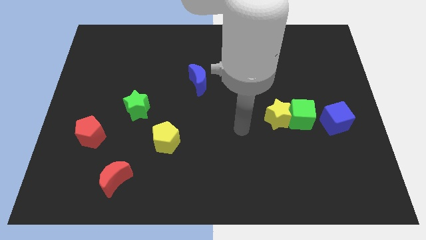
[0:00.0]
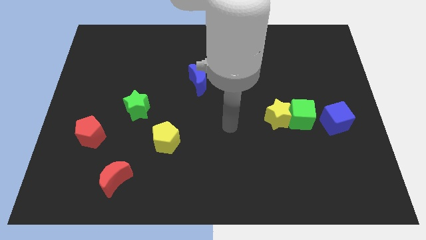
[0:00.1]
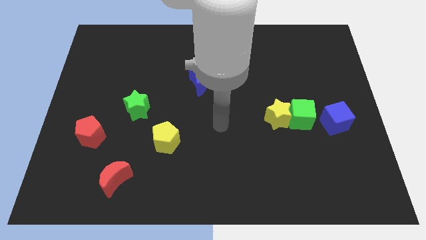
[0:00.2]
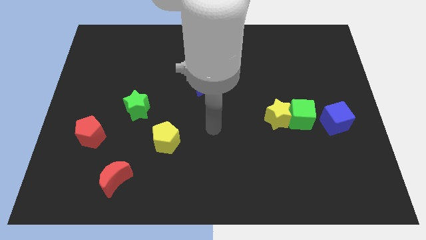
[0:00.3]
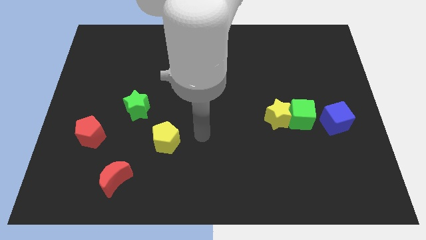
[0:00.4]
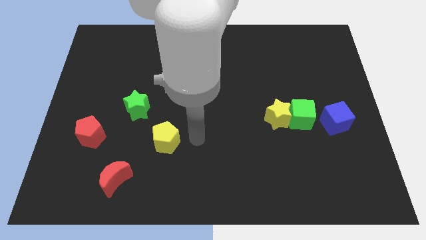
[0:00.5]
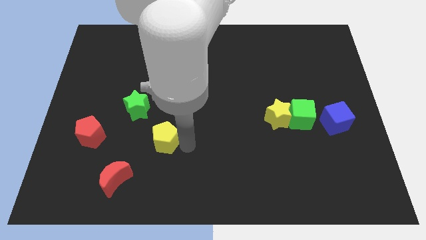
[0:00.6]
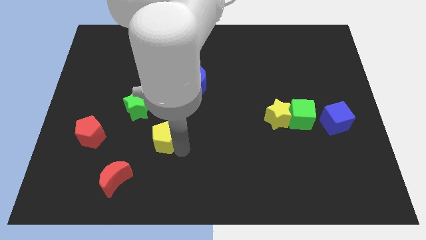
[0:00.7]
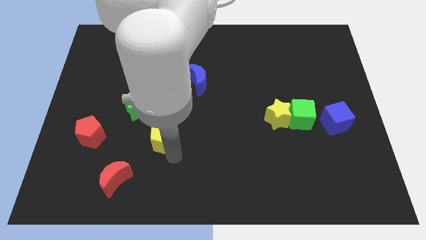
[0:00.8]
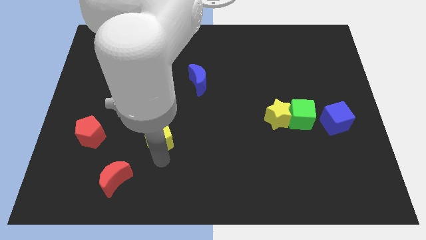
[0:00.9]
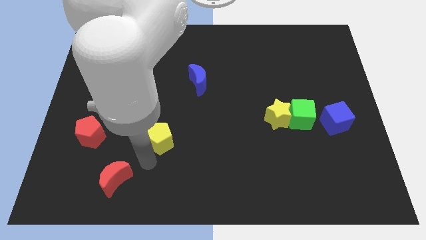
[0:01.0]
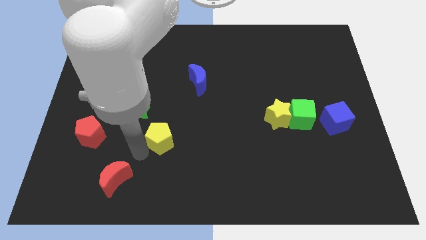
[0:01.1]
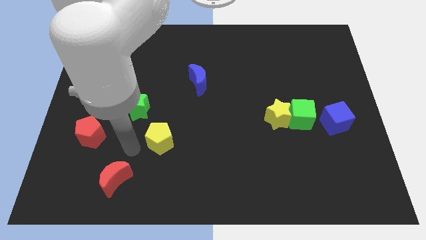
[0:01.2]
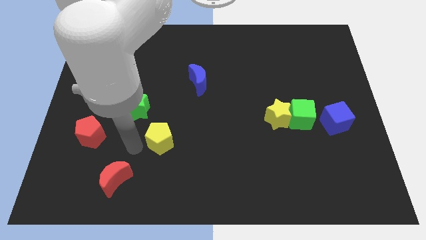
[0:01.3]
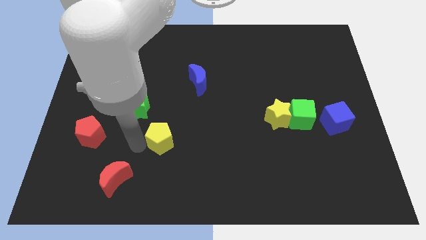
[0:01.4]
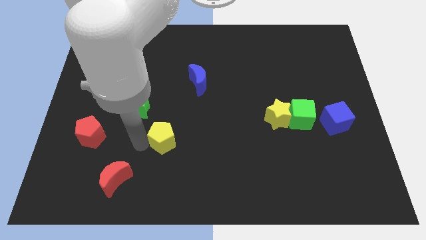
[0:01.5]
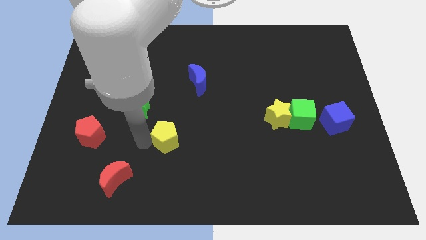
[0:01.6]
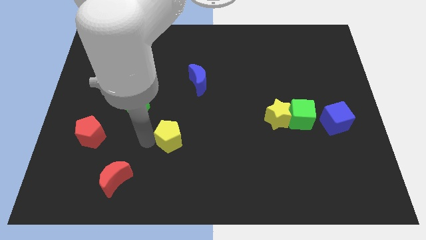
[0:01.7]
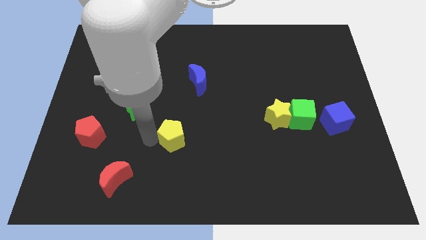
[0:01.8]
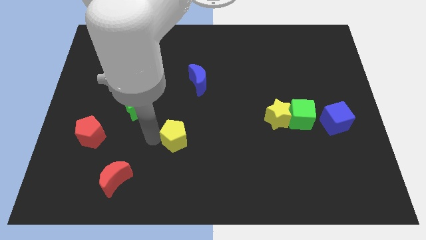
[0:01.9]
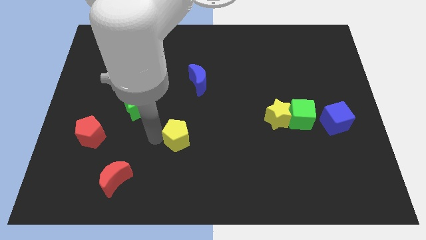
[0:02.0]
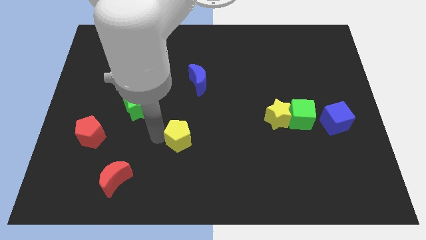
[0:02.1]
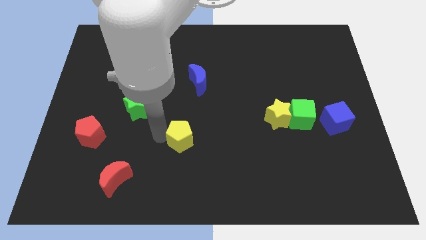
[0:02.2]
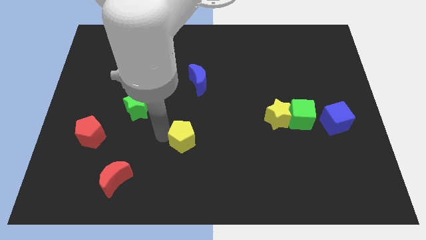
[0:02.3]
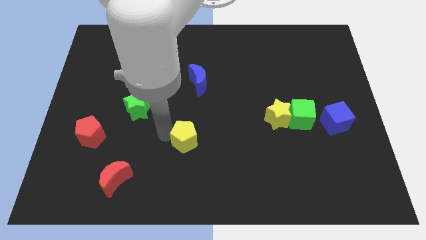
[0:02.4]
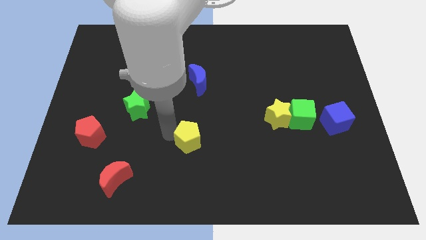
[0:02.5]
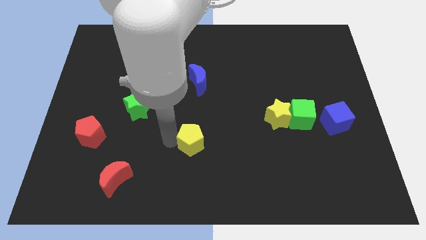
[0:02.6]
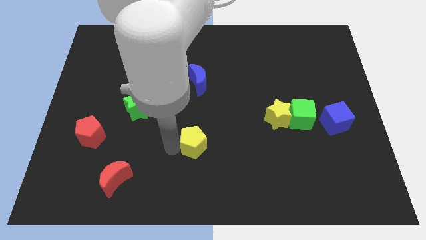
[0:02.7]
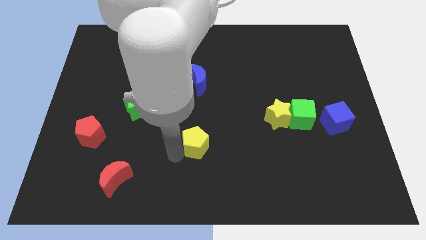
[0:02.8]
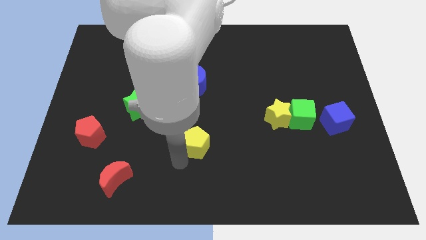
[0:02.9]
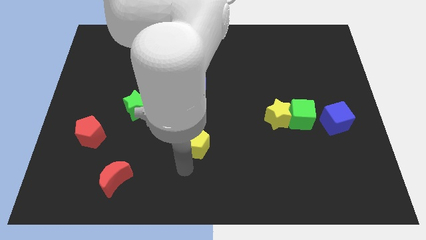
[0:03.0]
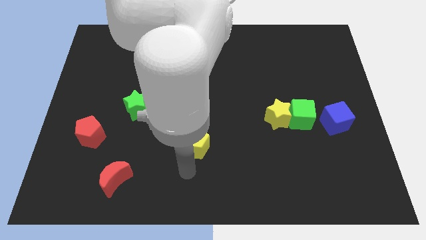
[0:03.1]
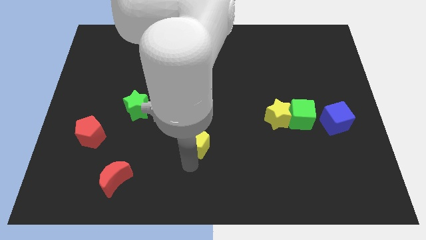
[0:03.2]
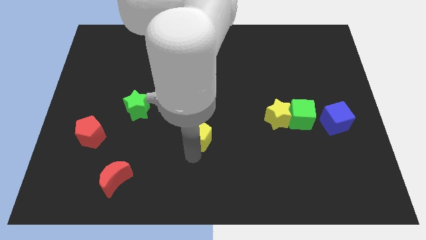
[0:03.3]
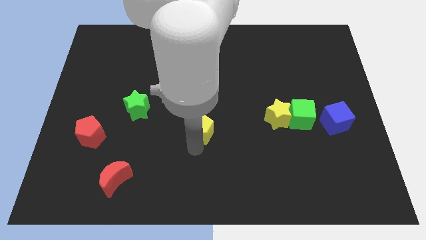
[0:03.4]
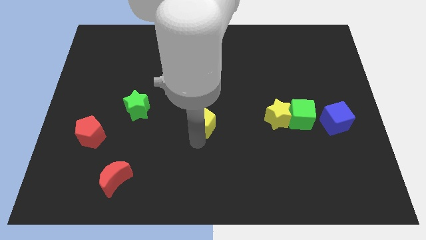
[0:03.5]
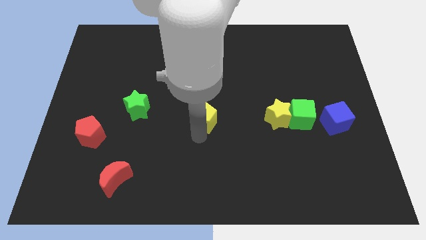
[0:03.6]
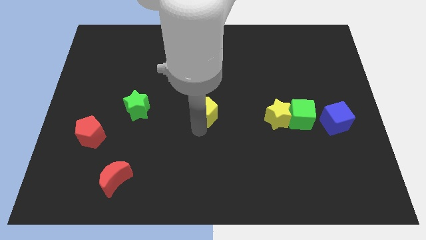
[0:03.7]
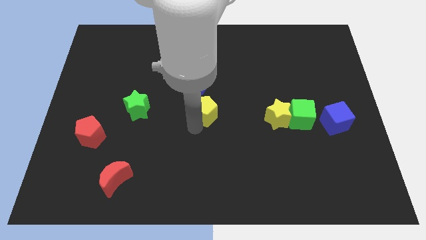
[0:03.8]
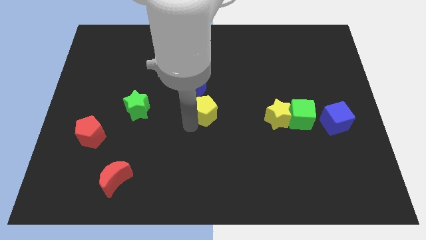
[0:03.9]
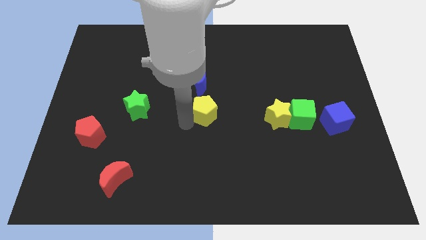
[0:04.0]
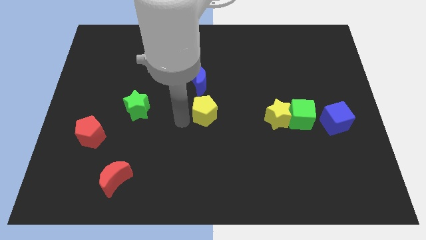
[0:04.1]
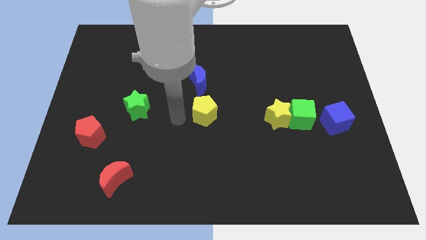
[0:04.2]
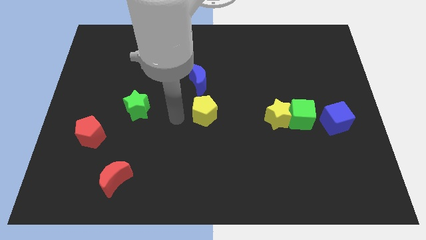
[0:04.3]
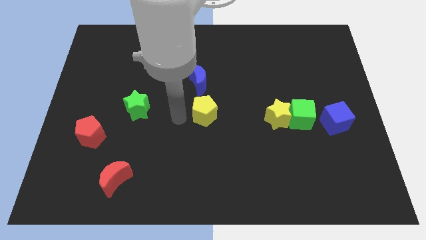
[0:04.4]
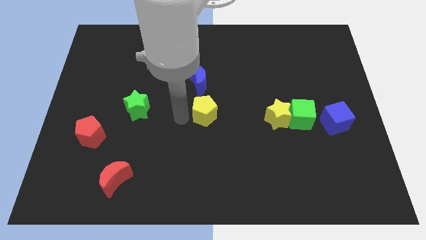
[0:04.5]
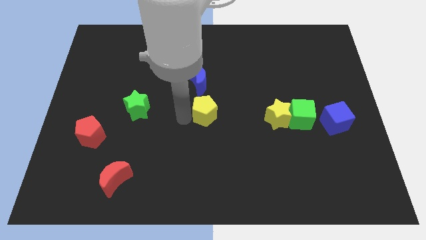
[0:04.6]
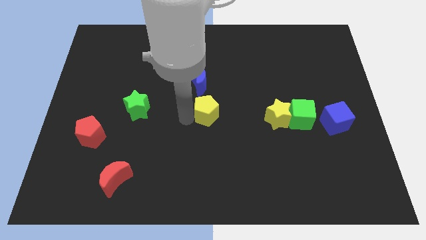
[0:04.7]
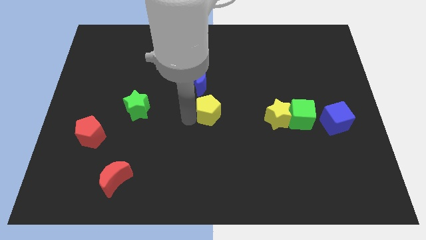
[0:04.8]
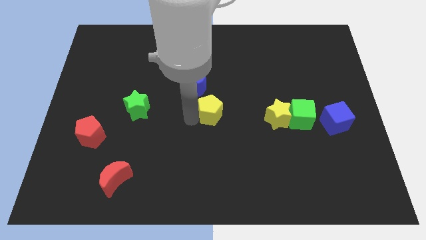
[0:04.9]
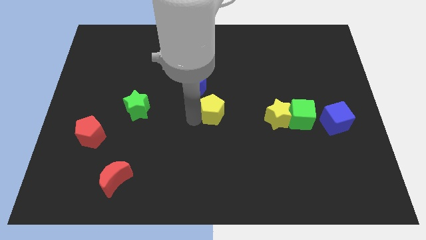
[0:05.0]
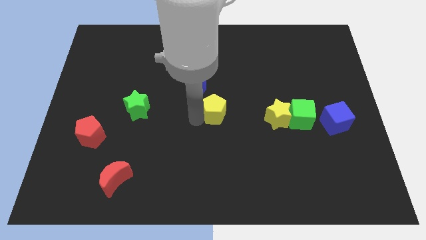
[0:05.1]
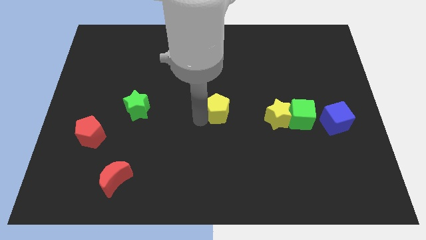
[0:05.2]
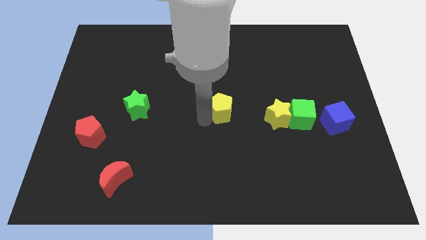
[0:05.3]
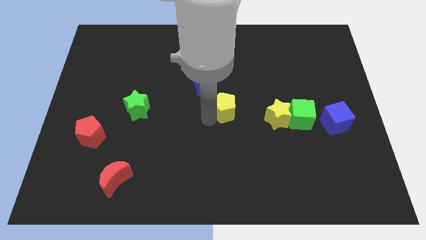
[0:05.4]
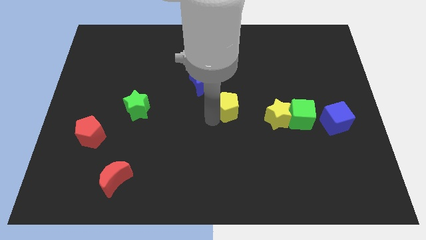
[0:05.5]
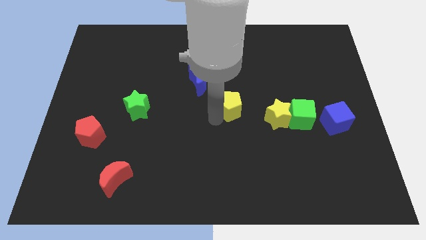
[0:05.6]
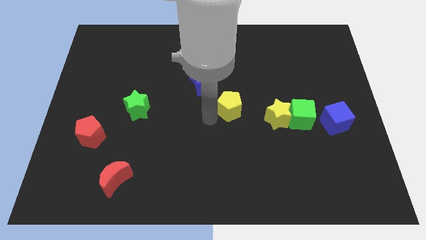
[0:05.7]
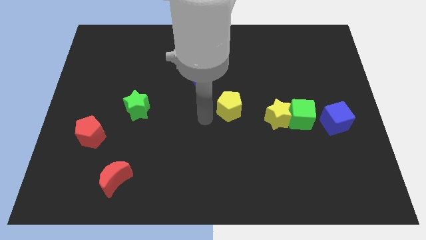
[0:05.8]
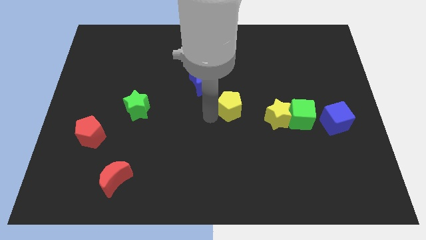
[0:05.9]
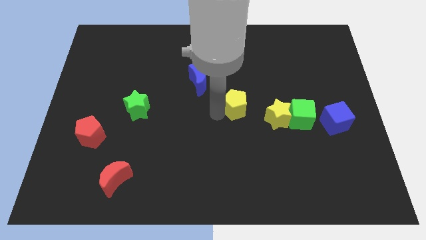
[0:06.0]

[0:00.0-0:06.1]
slide the yellow pentagon to the top left side of the yellow star

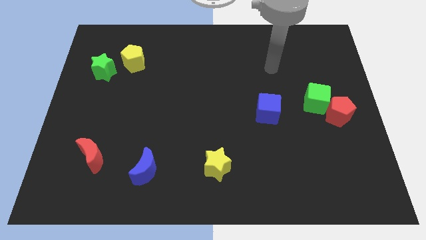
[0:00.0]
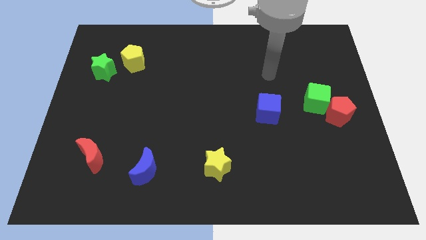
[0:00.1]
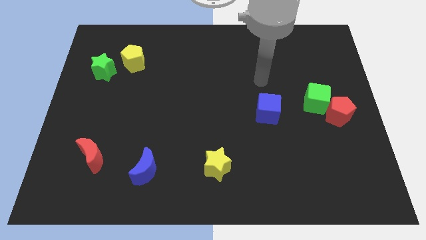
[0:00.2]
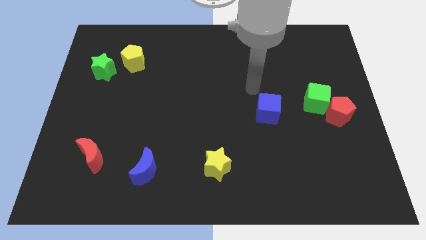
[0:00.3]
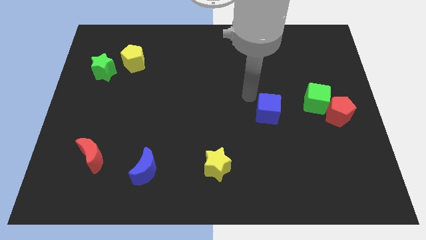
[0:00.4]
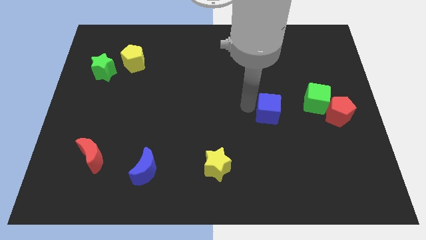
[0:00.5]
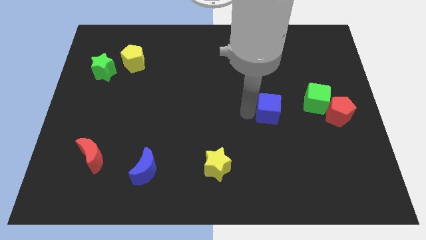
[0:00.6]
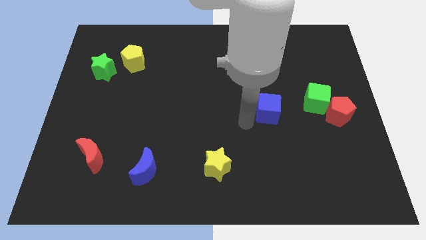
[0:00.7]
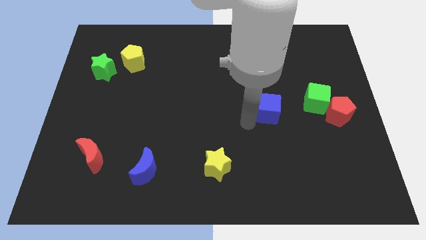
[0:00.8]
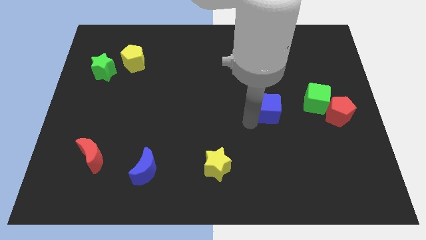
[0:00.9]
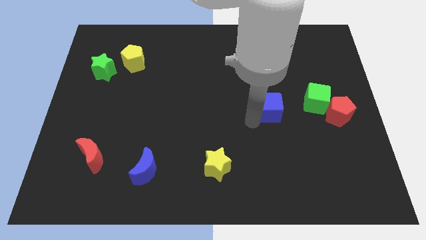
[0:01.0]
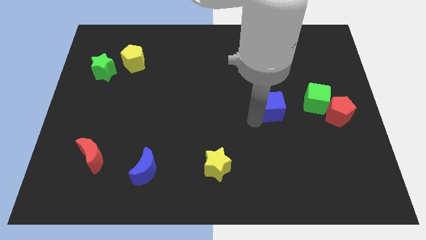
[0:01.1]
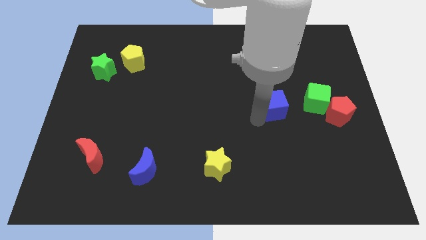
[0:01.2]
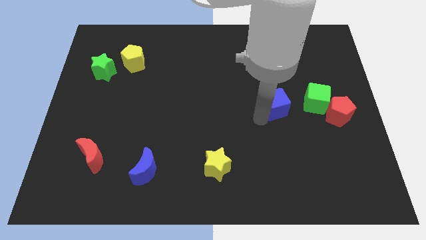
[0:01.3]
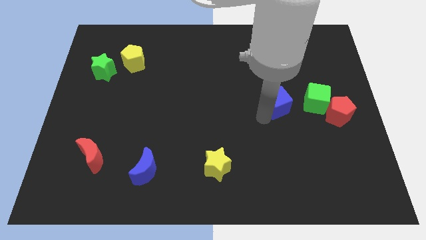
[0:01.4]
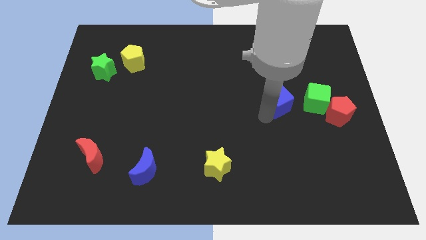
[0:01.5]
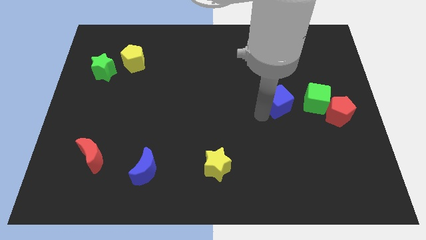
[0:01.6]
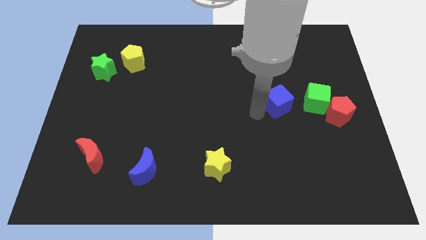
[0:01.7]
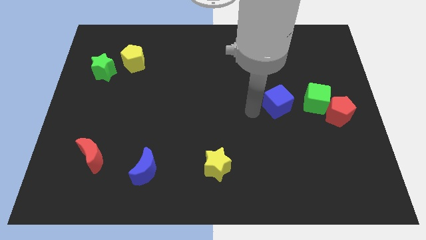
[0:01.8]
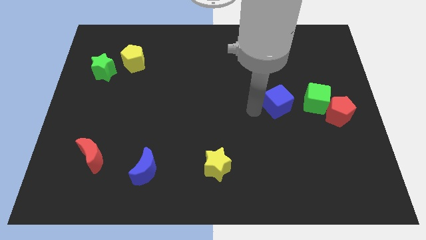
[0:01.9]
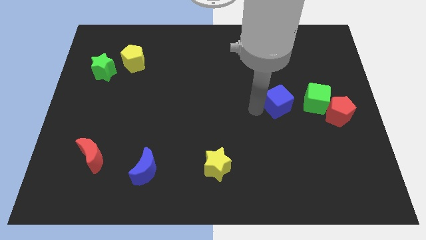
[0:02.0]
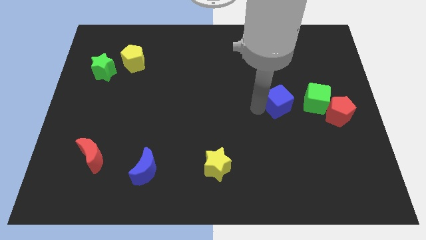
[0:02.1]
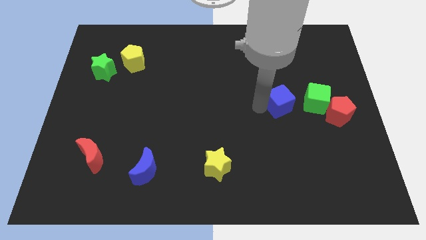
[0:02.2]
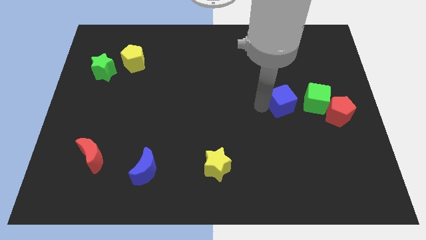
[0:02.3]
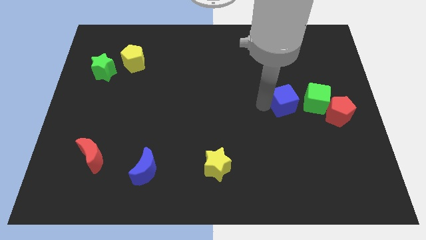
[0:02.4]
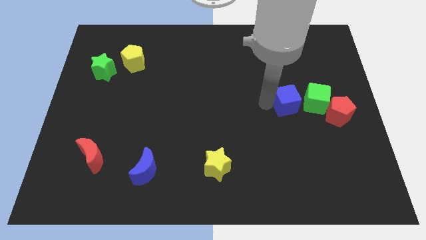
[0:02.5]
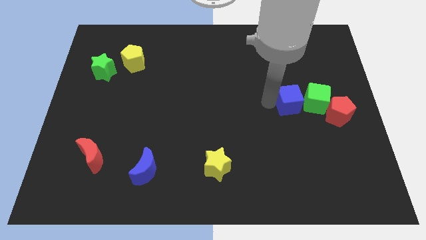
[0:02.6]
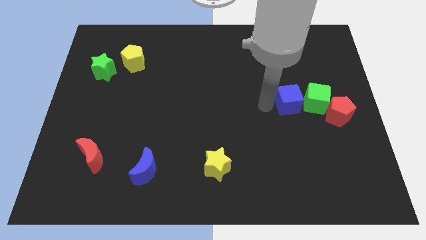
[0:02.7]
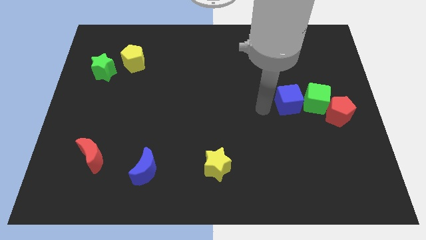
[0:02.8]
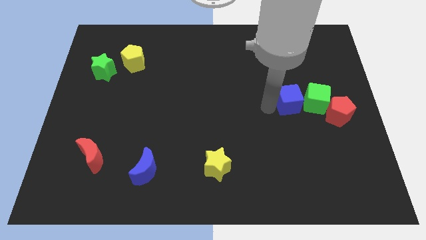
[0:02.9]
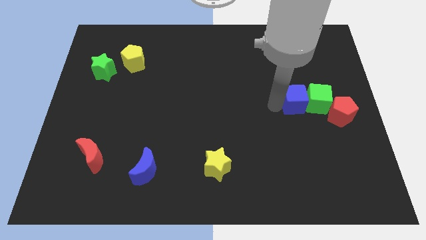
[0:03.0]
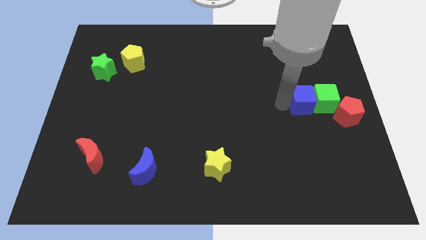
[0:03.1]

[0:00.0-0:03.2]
slide the blue cube diagonally up and to the left of the red pentagon
